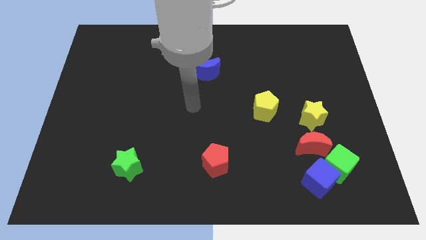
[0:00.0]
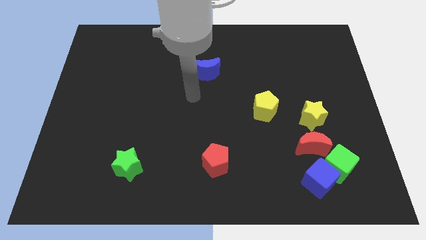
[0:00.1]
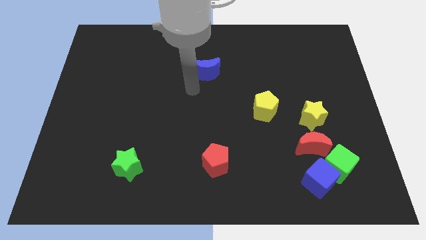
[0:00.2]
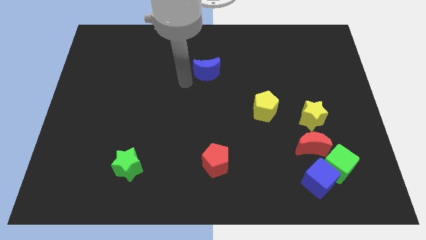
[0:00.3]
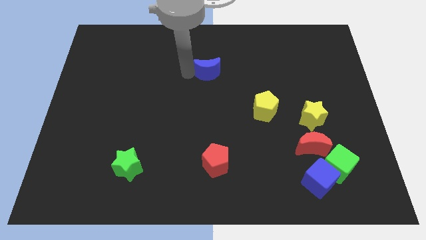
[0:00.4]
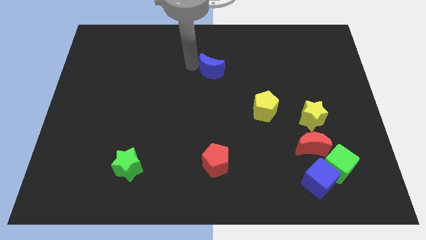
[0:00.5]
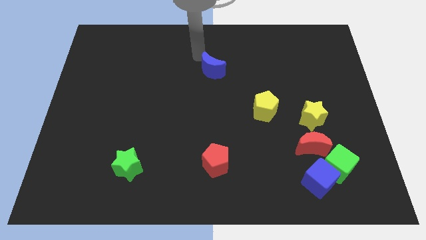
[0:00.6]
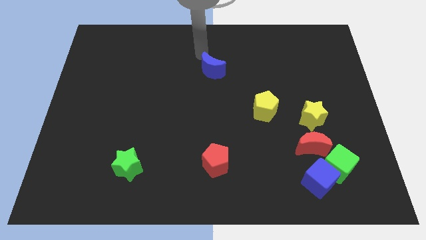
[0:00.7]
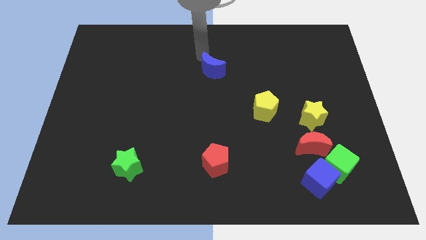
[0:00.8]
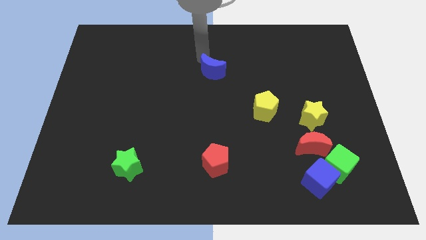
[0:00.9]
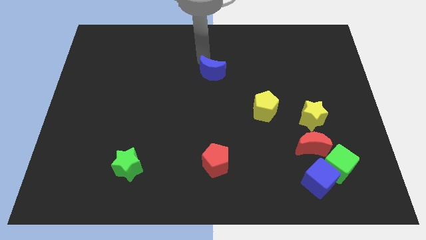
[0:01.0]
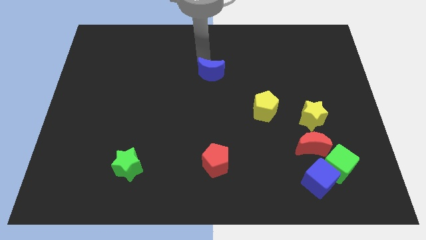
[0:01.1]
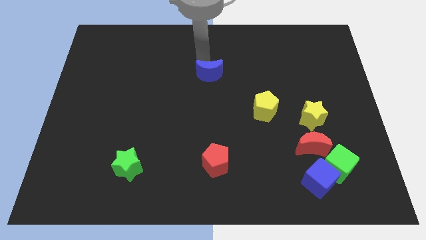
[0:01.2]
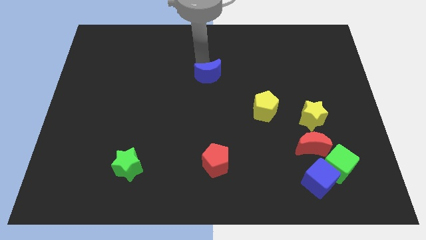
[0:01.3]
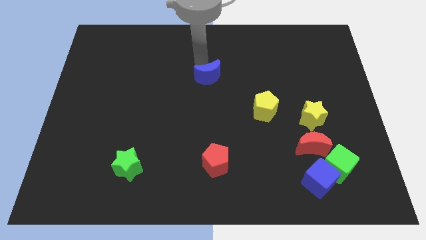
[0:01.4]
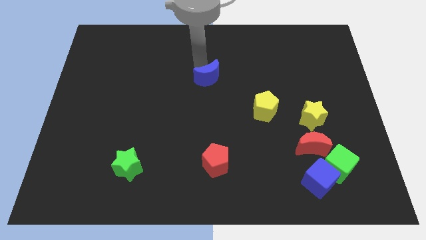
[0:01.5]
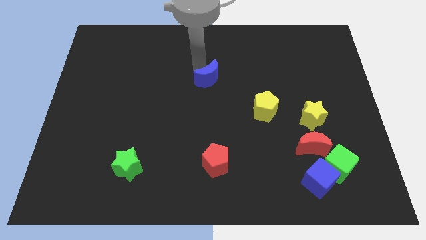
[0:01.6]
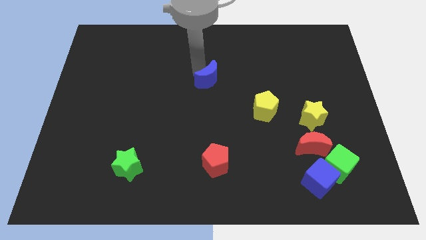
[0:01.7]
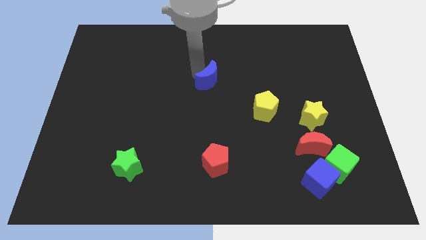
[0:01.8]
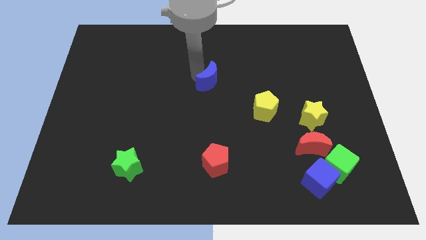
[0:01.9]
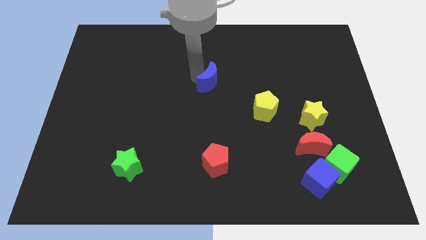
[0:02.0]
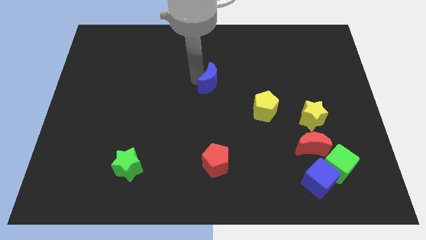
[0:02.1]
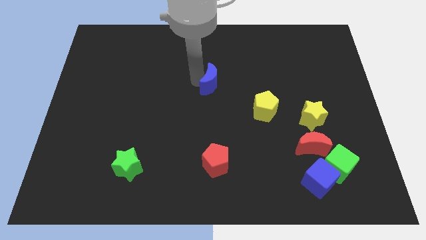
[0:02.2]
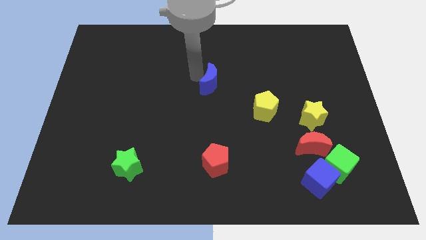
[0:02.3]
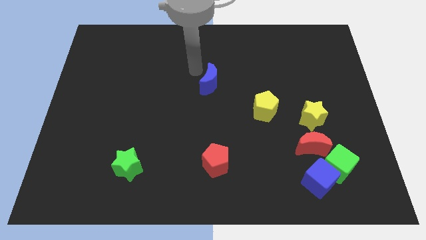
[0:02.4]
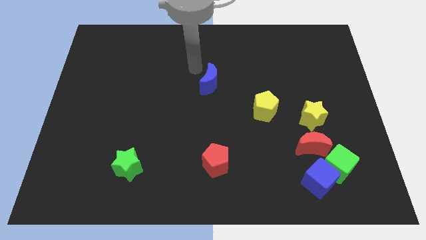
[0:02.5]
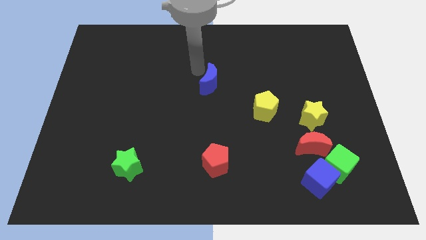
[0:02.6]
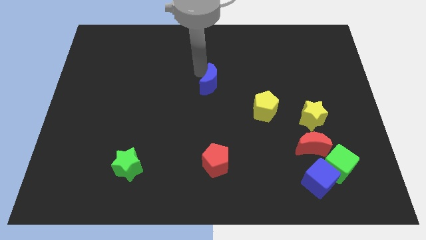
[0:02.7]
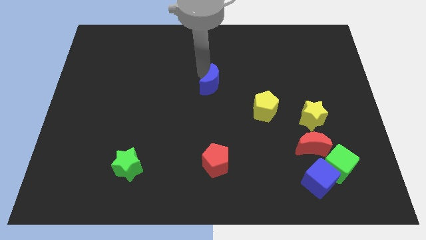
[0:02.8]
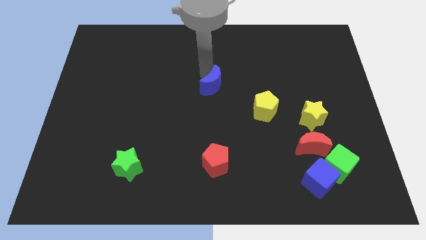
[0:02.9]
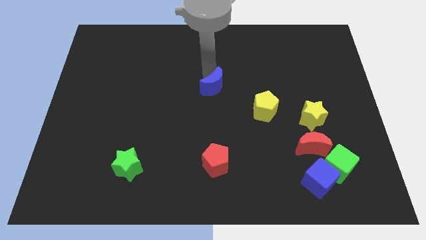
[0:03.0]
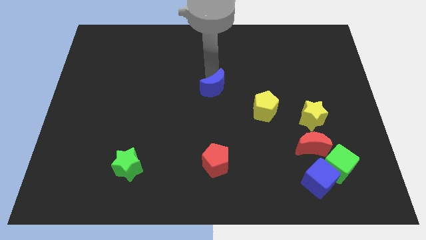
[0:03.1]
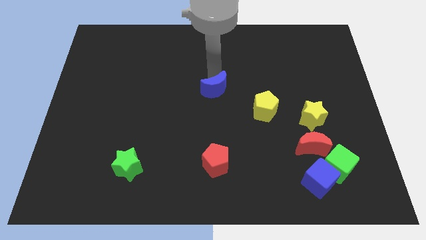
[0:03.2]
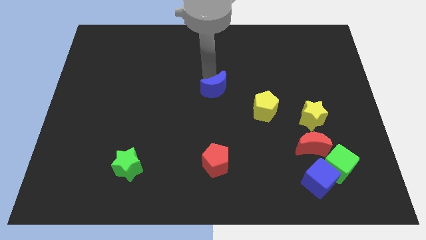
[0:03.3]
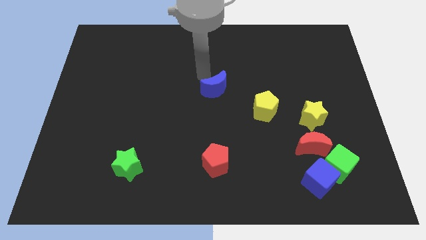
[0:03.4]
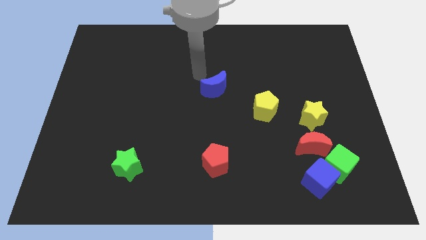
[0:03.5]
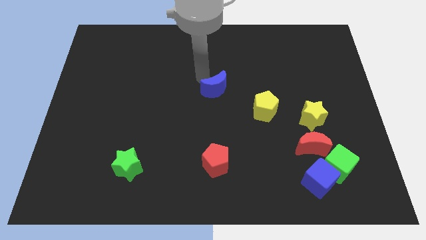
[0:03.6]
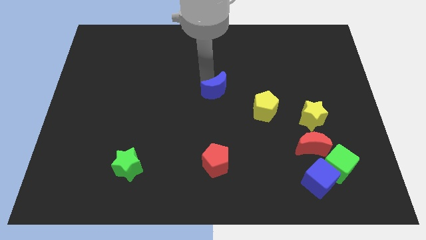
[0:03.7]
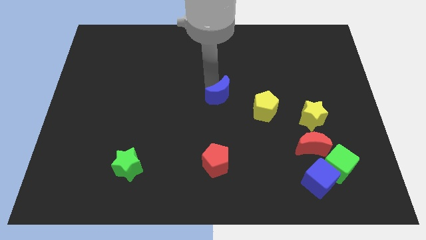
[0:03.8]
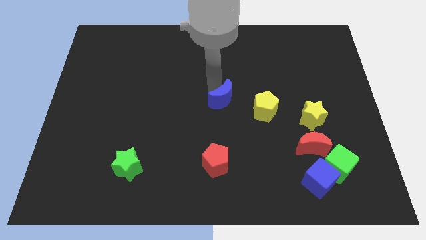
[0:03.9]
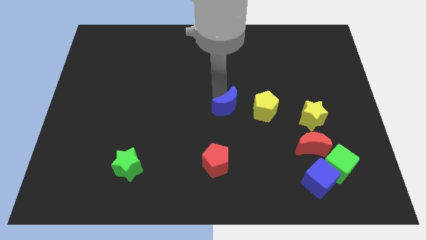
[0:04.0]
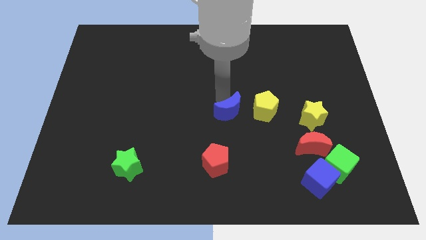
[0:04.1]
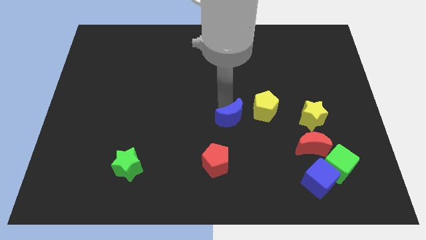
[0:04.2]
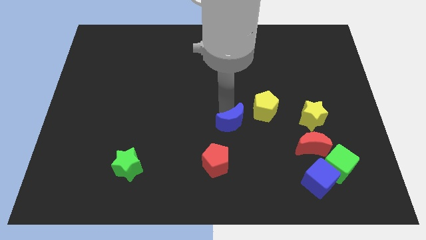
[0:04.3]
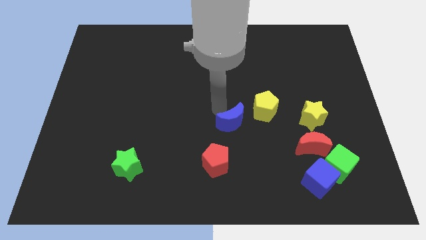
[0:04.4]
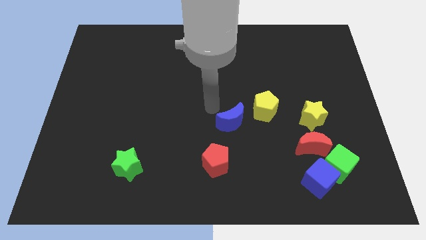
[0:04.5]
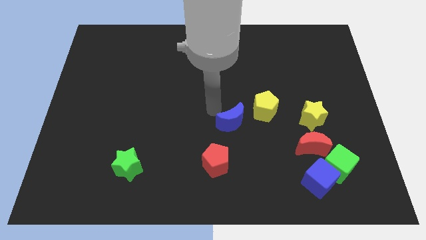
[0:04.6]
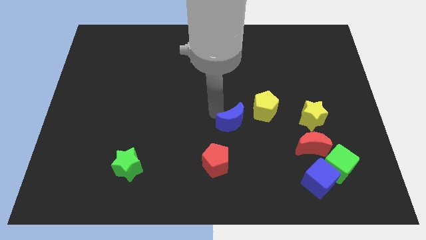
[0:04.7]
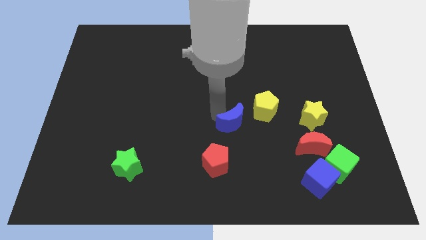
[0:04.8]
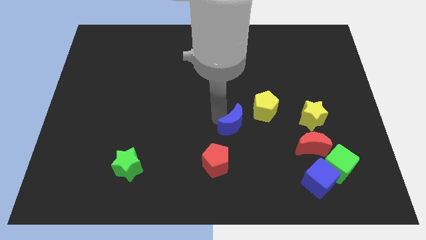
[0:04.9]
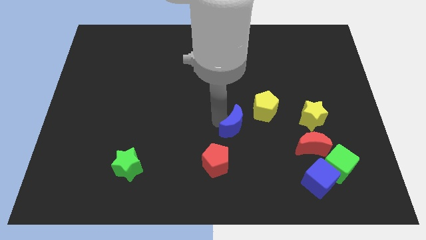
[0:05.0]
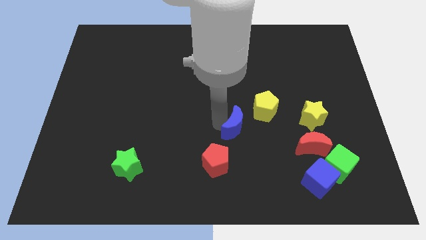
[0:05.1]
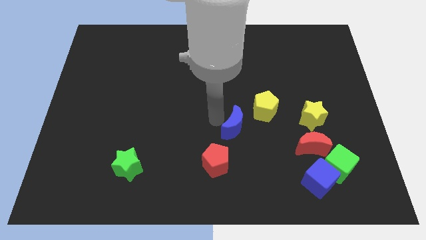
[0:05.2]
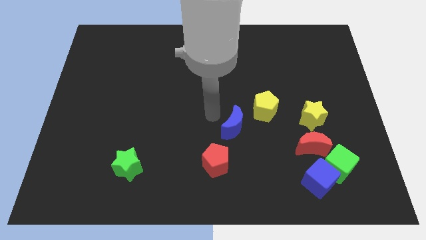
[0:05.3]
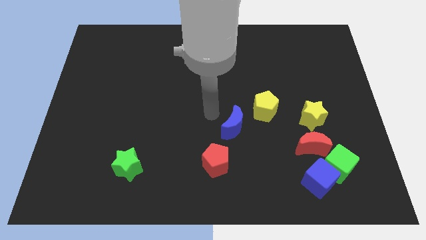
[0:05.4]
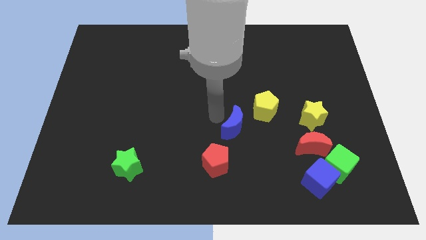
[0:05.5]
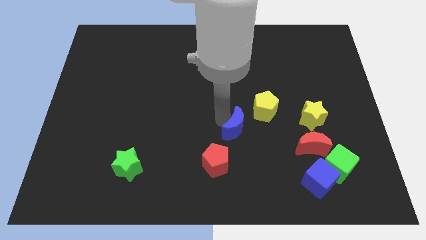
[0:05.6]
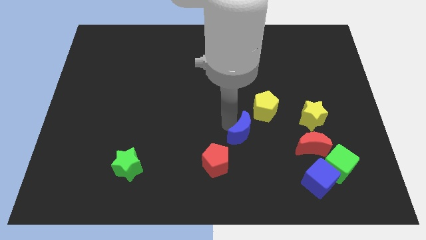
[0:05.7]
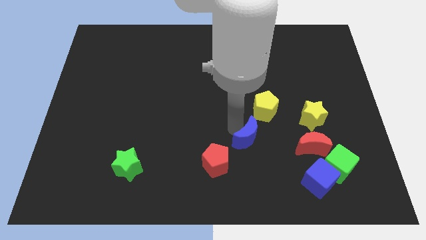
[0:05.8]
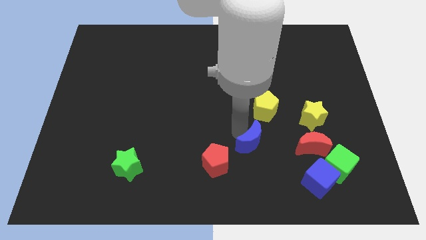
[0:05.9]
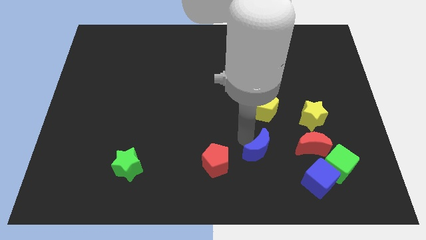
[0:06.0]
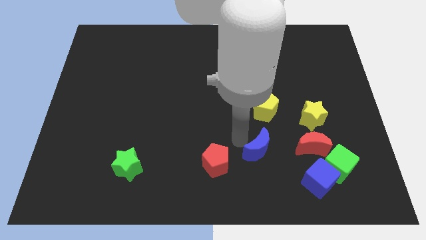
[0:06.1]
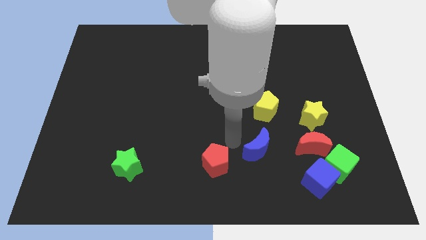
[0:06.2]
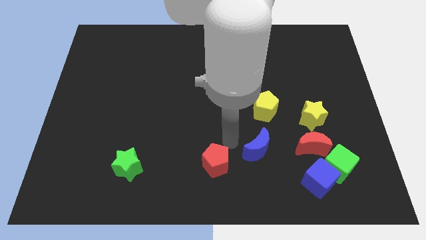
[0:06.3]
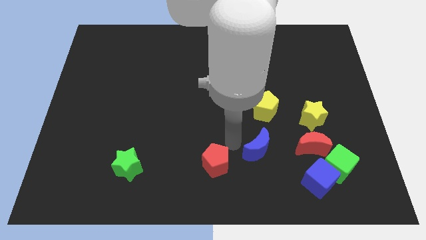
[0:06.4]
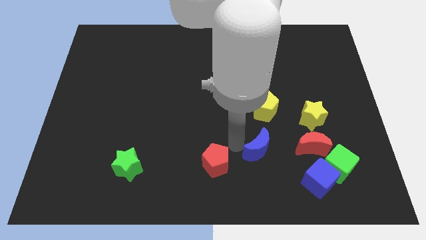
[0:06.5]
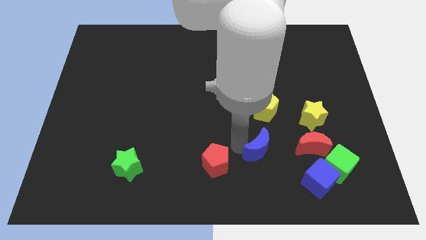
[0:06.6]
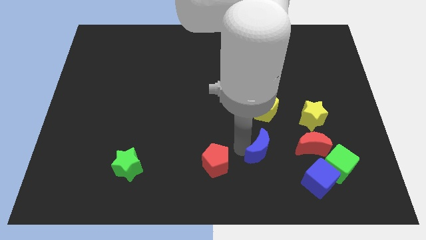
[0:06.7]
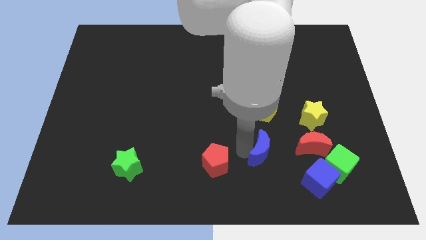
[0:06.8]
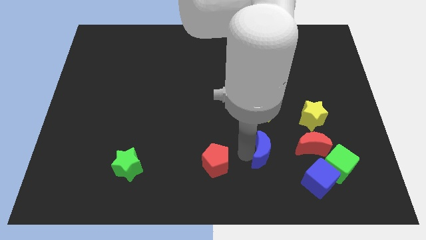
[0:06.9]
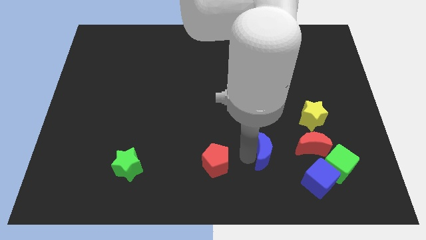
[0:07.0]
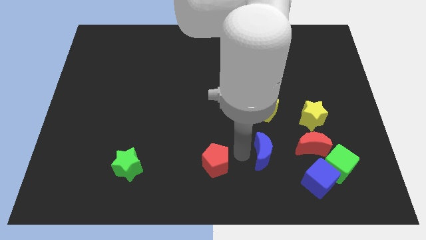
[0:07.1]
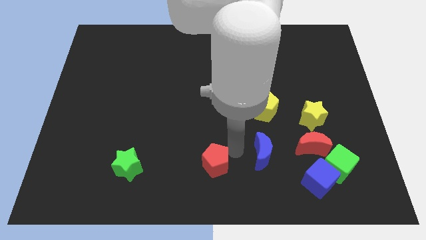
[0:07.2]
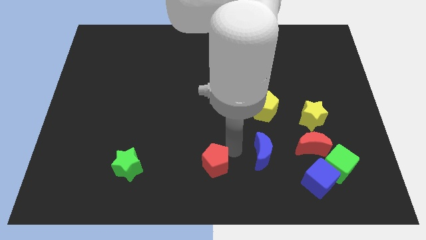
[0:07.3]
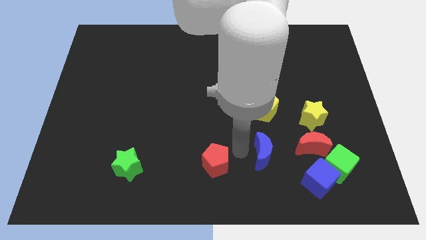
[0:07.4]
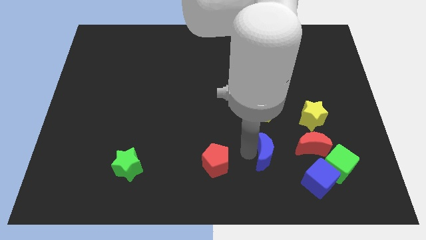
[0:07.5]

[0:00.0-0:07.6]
put the blue moon to the top left of the blue cube
